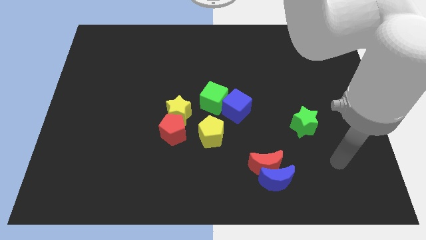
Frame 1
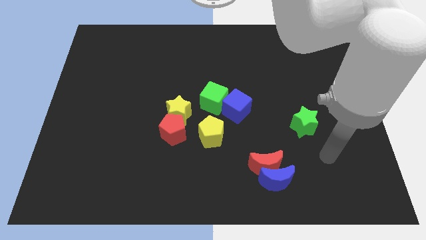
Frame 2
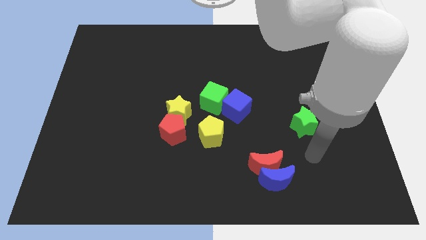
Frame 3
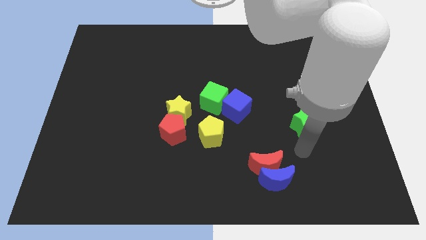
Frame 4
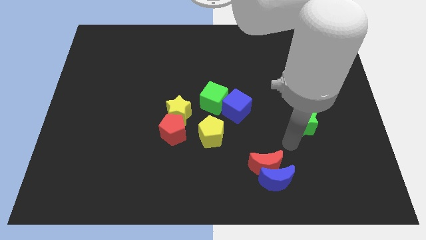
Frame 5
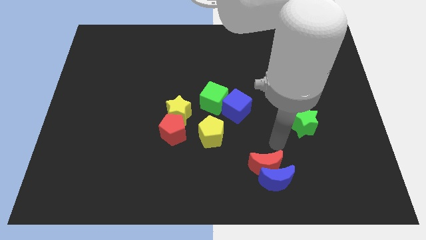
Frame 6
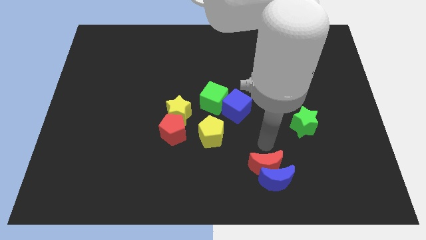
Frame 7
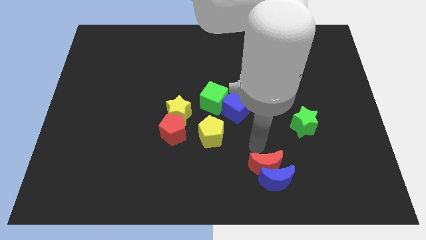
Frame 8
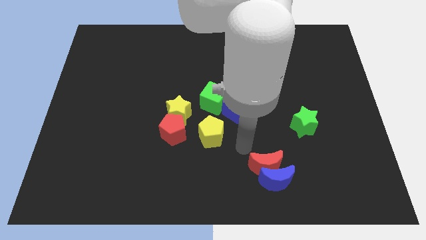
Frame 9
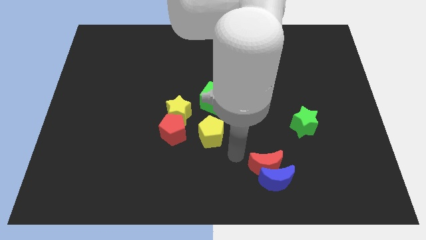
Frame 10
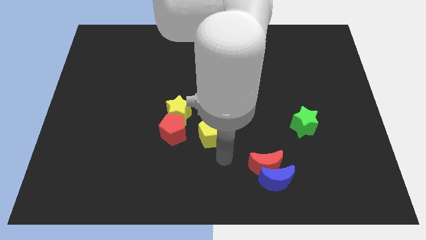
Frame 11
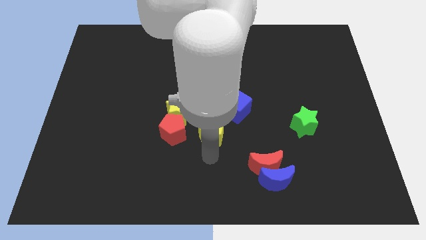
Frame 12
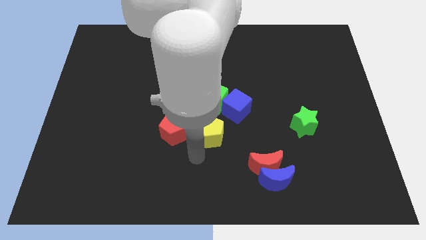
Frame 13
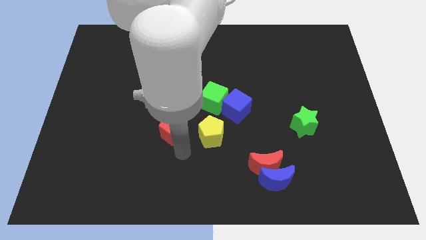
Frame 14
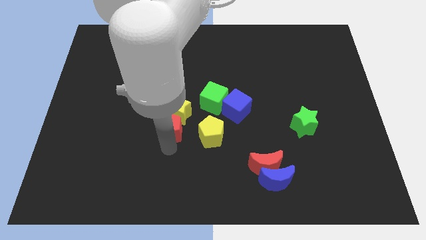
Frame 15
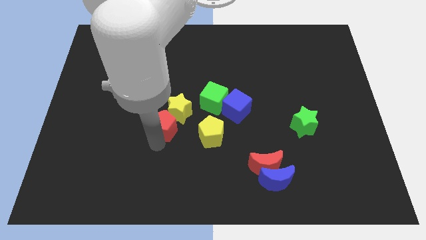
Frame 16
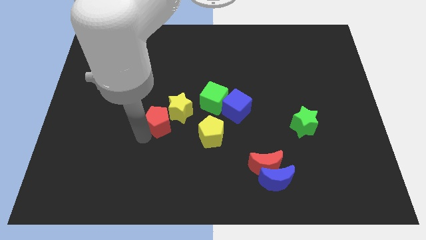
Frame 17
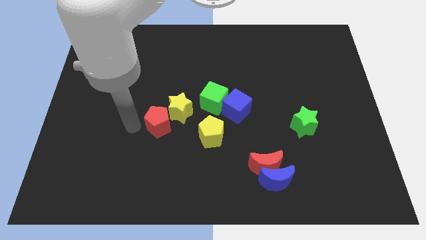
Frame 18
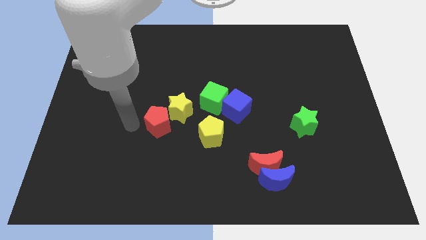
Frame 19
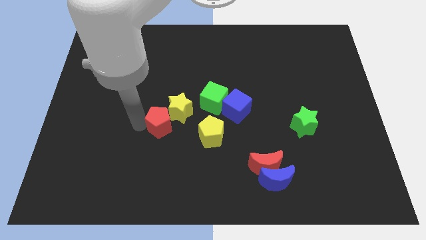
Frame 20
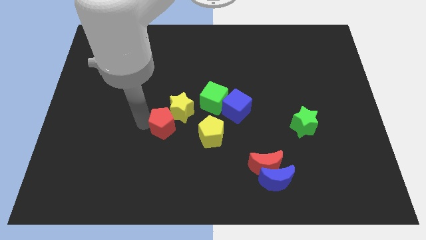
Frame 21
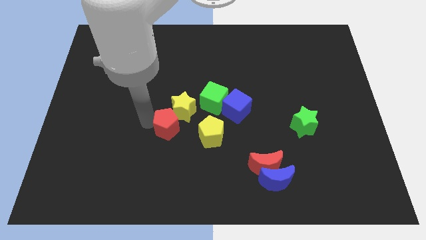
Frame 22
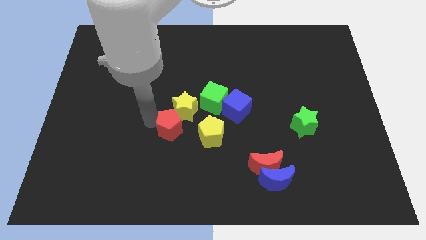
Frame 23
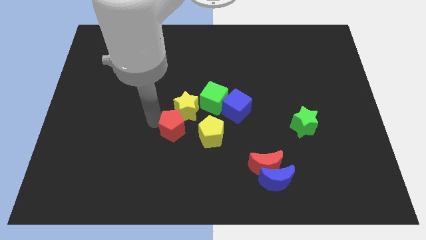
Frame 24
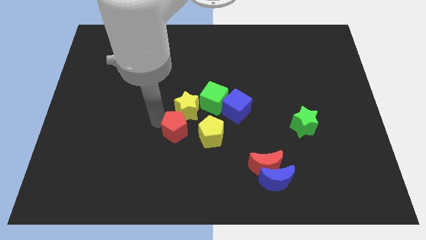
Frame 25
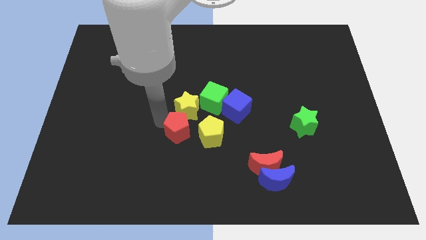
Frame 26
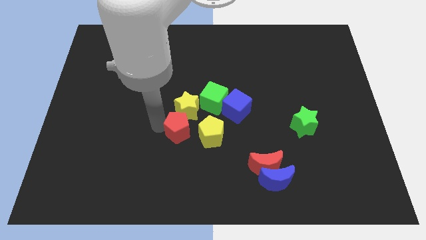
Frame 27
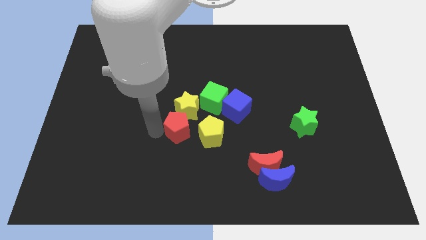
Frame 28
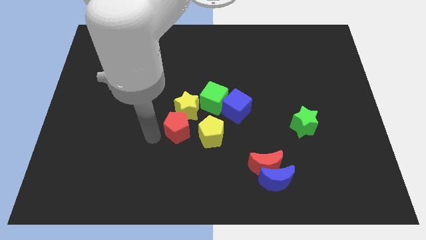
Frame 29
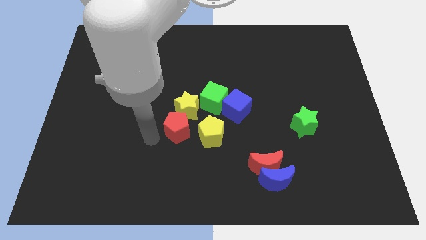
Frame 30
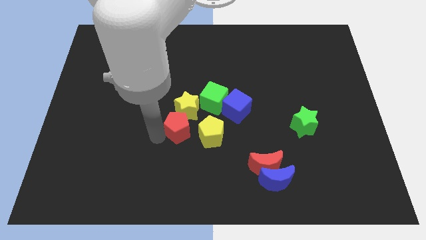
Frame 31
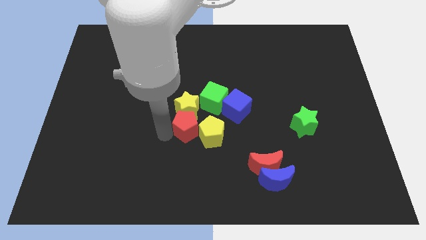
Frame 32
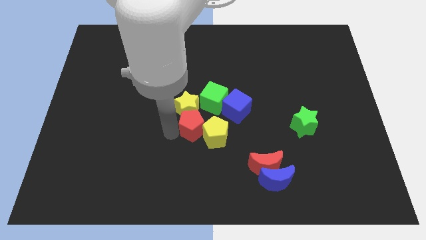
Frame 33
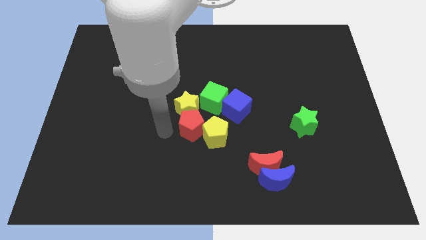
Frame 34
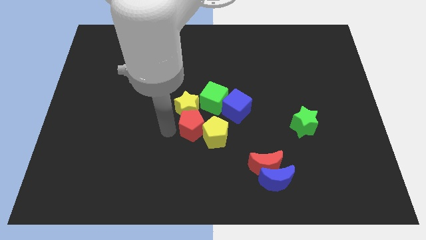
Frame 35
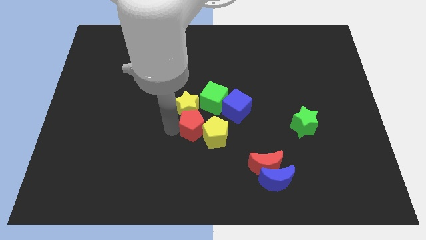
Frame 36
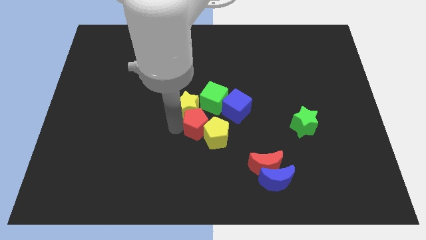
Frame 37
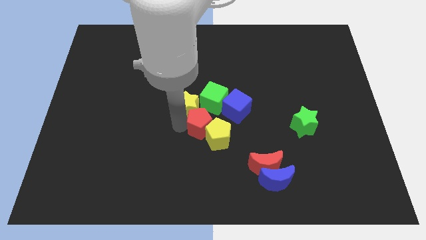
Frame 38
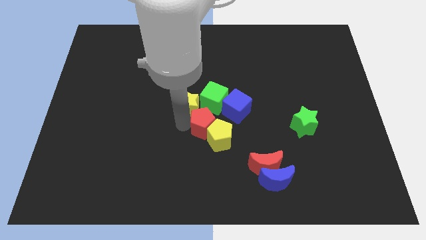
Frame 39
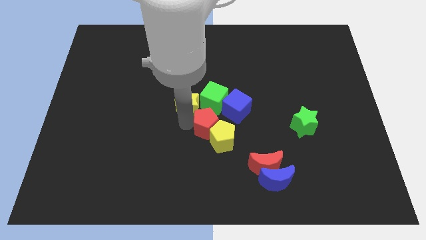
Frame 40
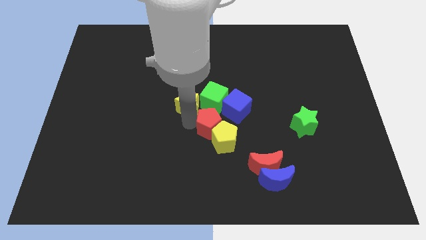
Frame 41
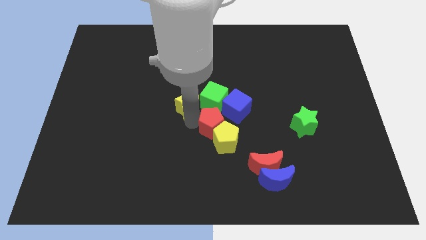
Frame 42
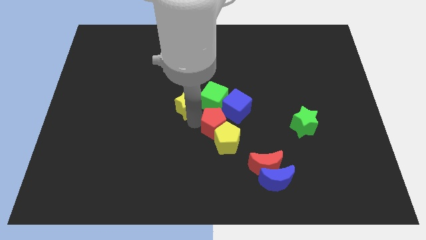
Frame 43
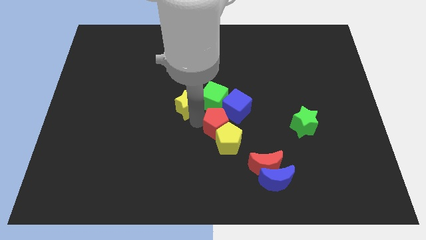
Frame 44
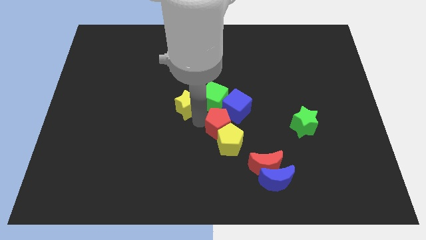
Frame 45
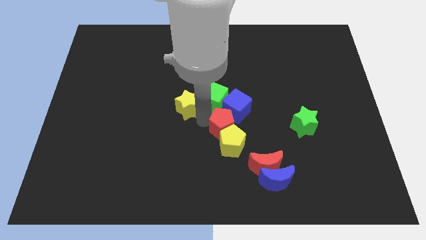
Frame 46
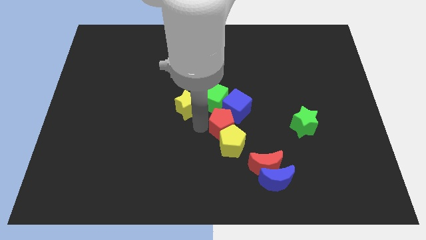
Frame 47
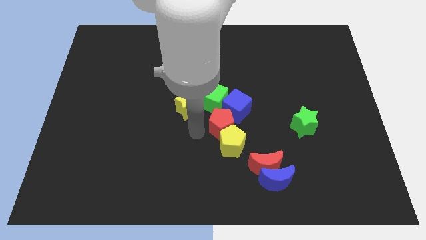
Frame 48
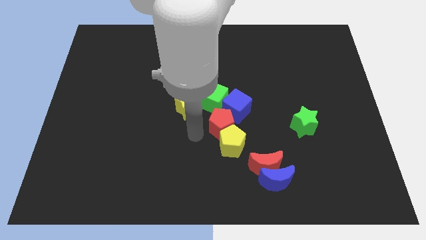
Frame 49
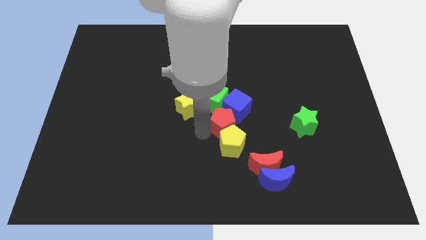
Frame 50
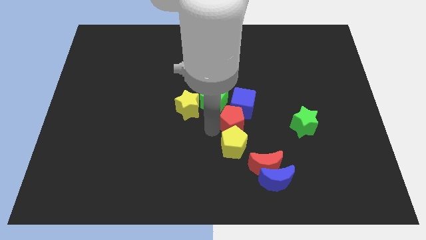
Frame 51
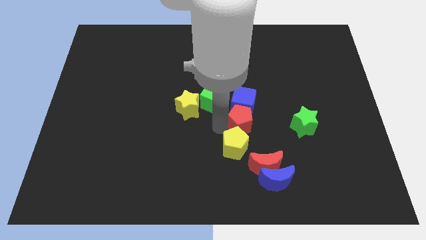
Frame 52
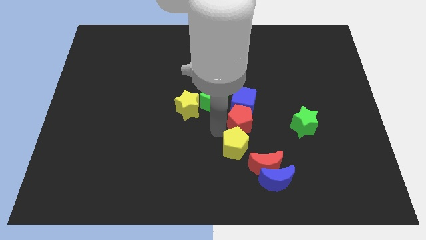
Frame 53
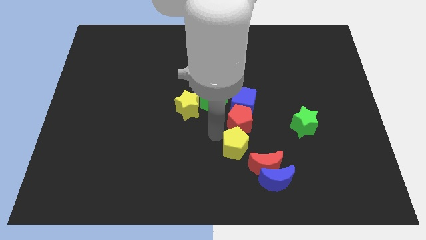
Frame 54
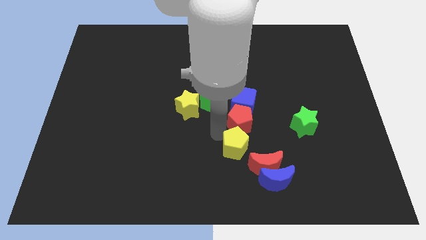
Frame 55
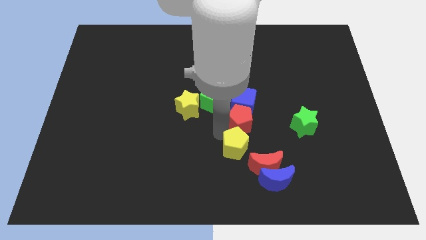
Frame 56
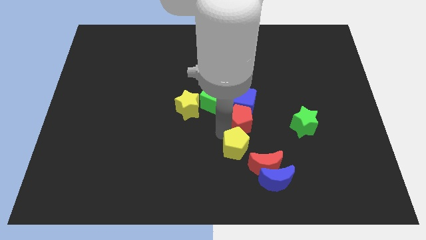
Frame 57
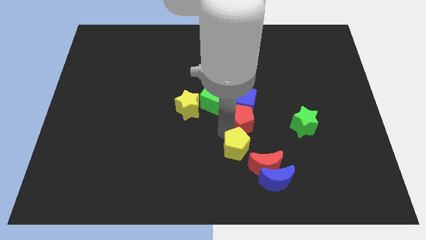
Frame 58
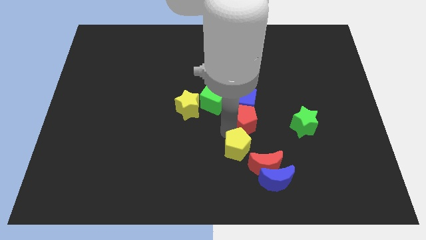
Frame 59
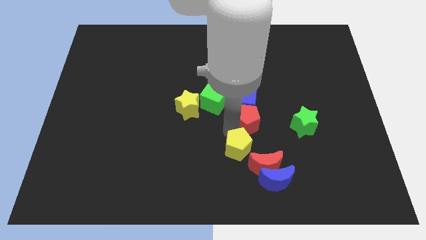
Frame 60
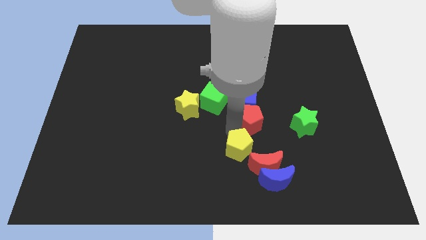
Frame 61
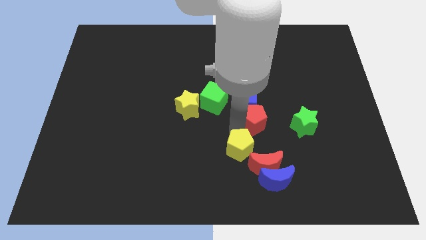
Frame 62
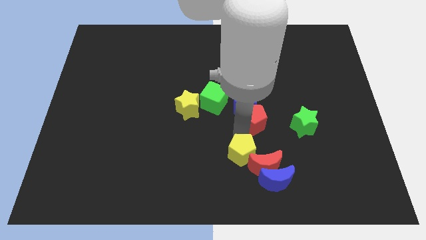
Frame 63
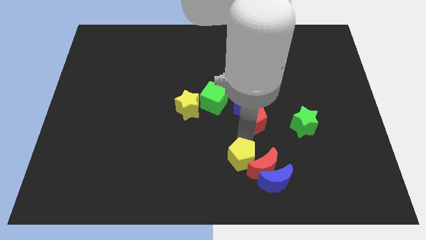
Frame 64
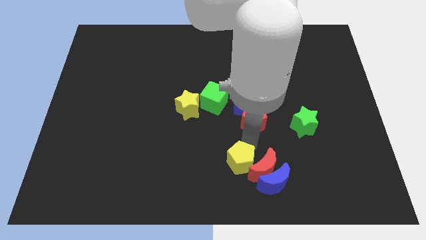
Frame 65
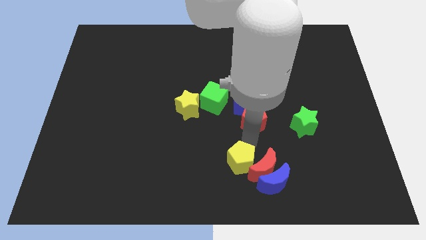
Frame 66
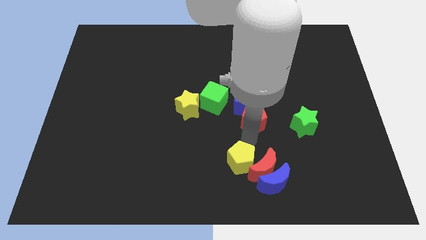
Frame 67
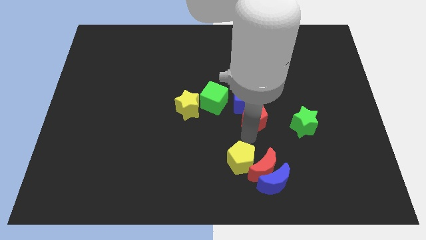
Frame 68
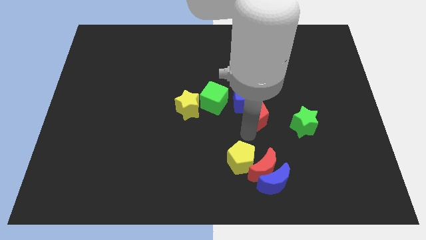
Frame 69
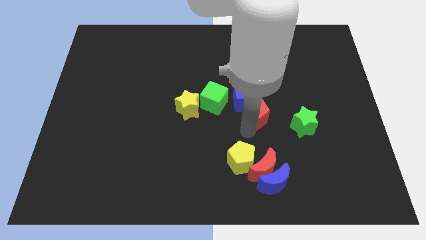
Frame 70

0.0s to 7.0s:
put the red pentagon just right of the green cube
